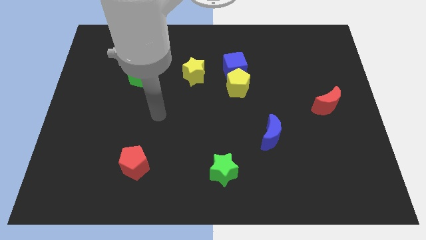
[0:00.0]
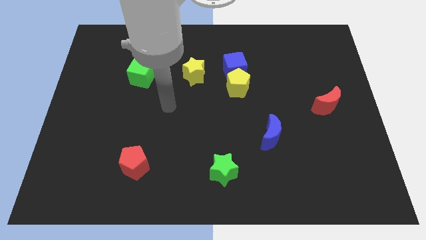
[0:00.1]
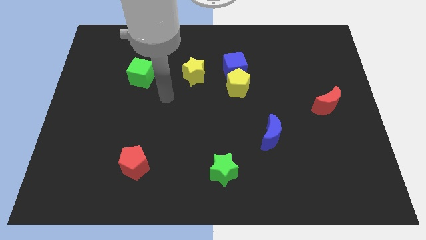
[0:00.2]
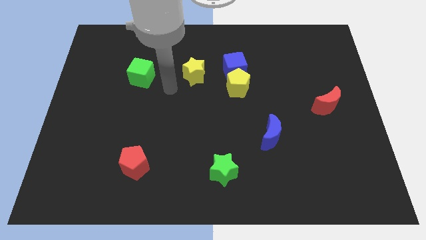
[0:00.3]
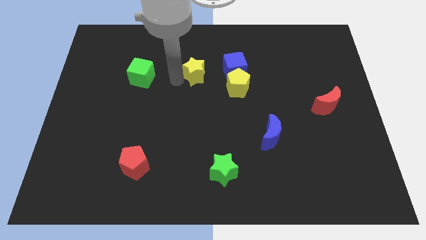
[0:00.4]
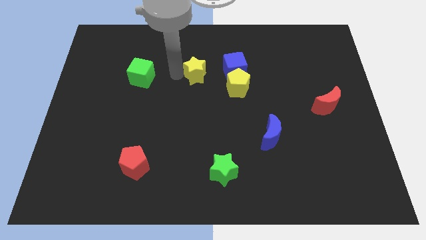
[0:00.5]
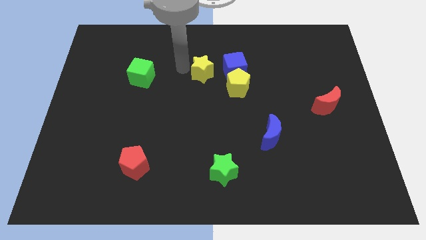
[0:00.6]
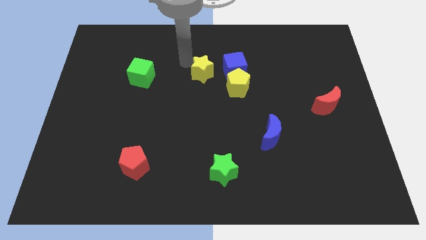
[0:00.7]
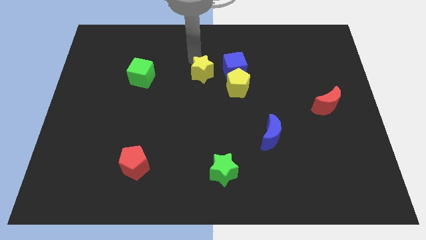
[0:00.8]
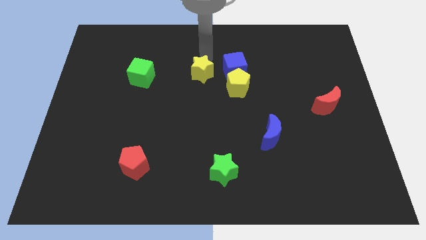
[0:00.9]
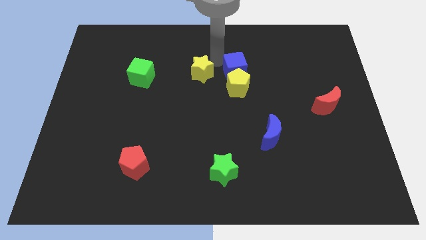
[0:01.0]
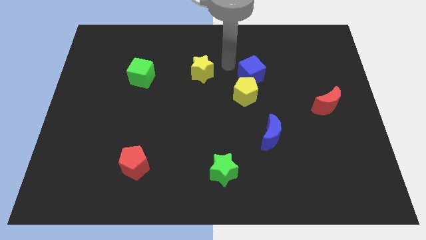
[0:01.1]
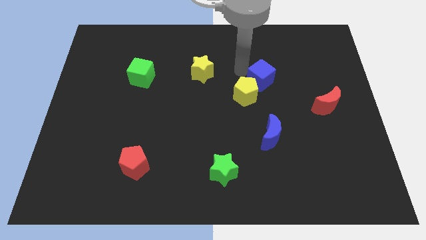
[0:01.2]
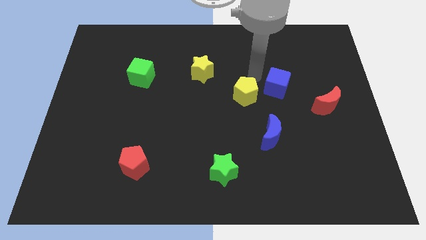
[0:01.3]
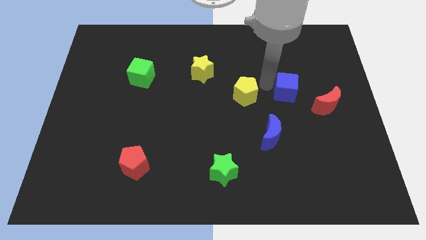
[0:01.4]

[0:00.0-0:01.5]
move the yellow pentagon away from the blue cube

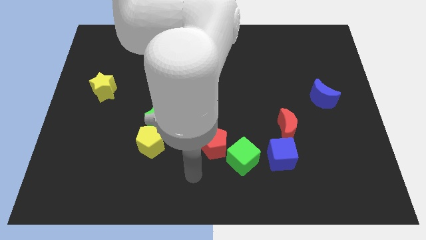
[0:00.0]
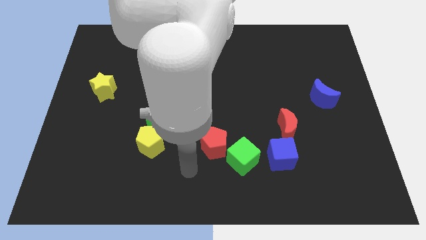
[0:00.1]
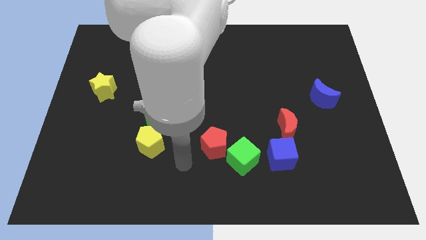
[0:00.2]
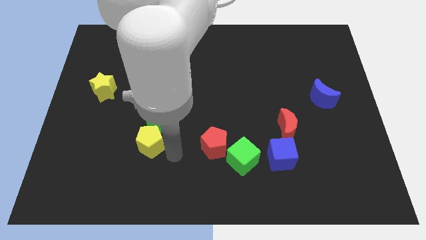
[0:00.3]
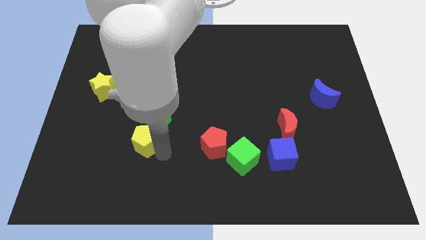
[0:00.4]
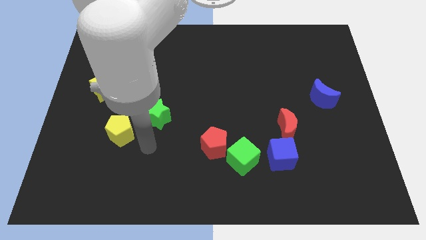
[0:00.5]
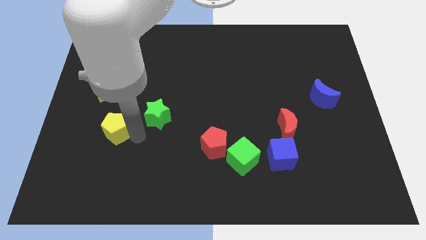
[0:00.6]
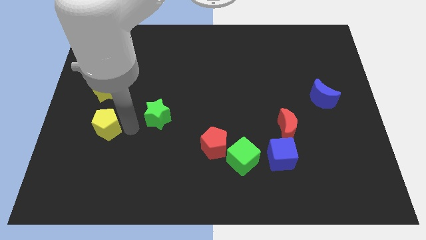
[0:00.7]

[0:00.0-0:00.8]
pull the green star apart from the yellow pentagon

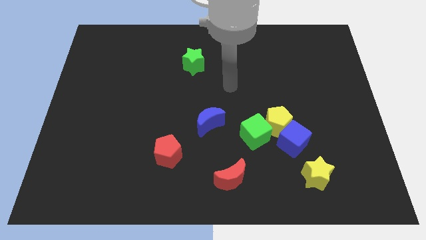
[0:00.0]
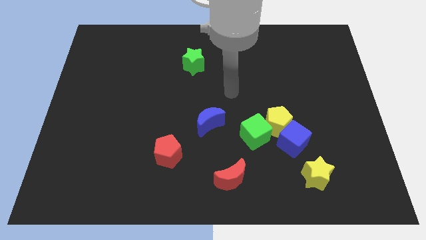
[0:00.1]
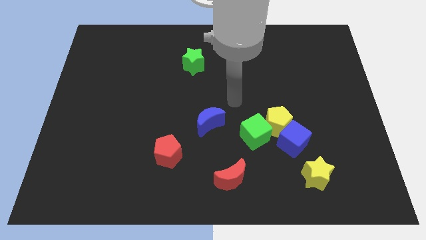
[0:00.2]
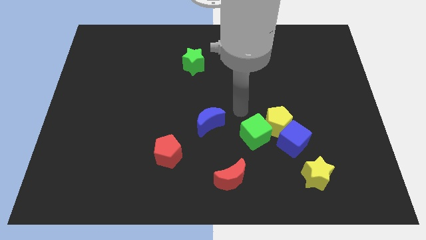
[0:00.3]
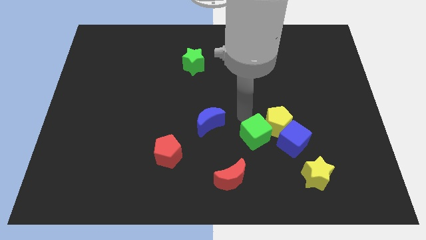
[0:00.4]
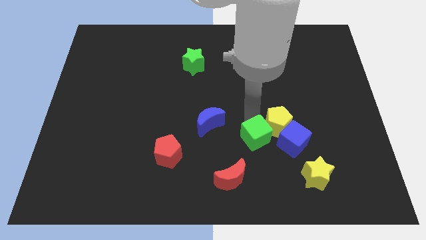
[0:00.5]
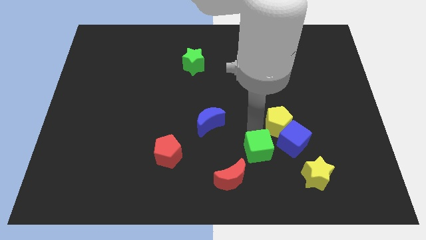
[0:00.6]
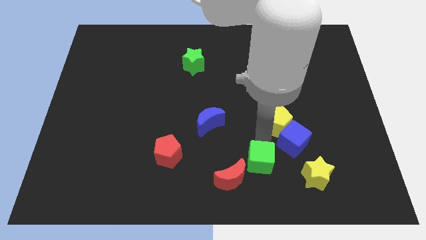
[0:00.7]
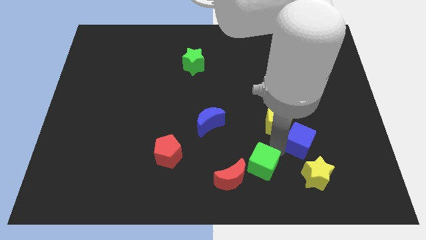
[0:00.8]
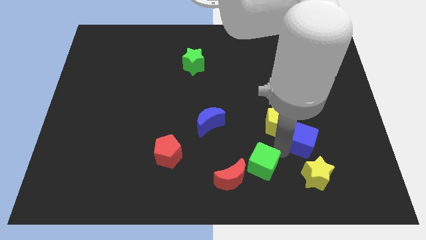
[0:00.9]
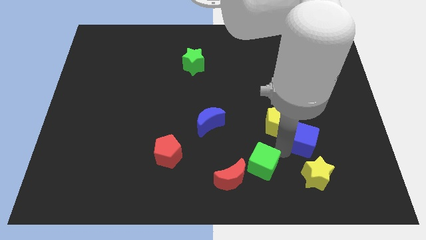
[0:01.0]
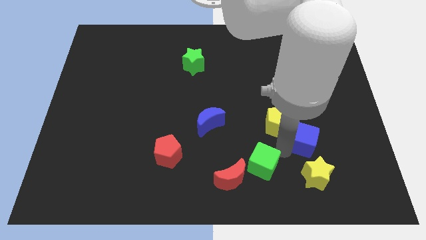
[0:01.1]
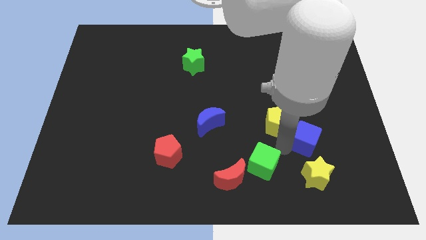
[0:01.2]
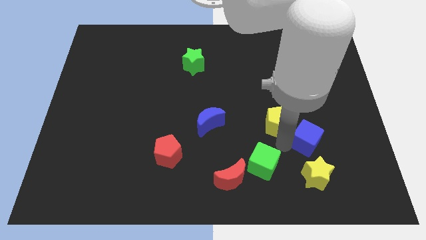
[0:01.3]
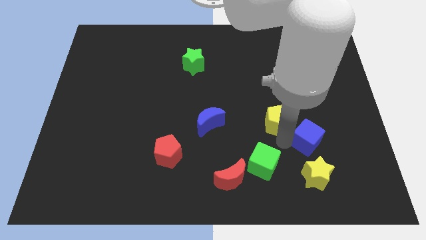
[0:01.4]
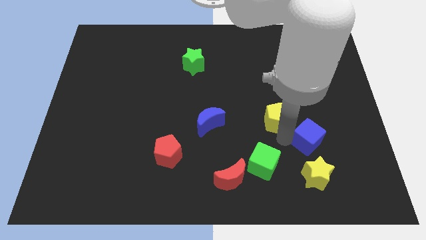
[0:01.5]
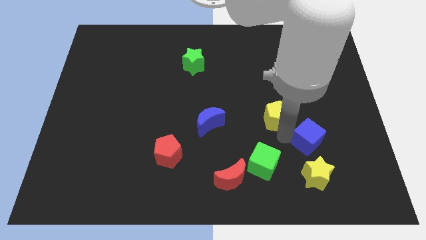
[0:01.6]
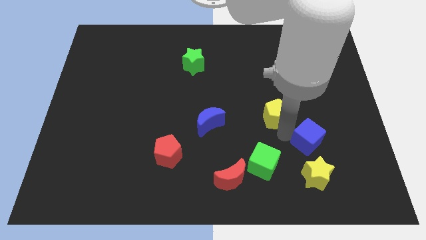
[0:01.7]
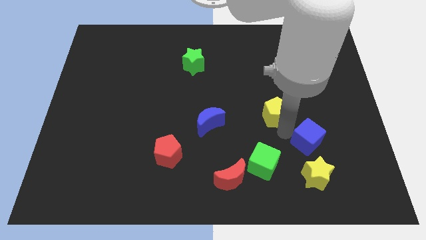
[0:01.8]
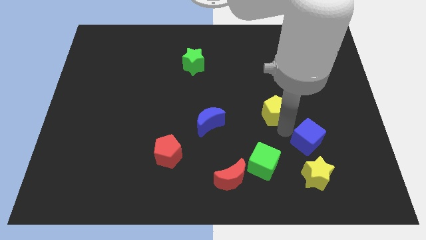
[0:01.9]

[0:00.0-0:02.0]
pull the yellow pentagon apart from the blue cube and green cube

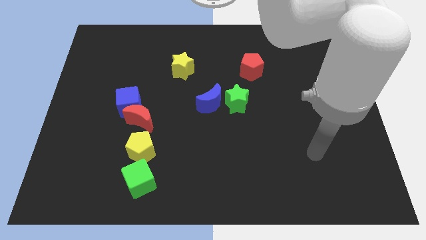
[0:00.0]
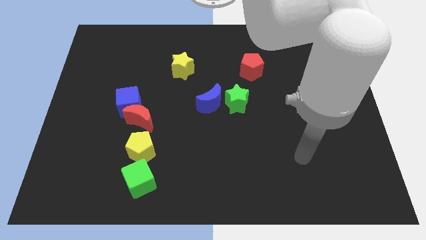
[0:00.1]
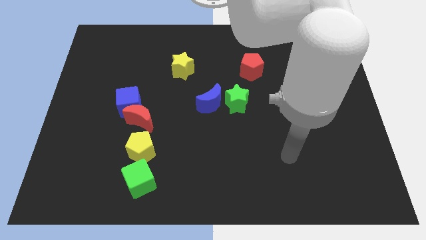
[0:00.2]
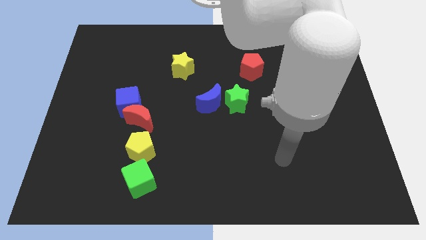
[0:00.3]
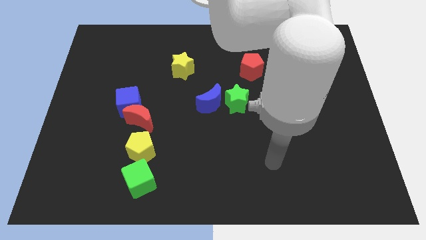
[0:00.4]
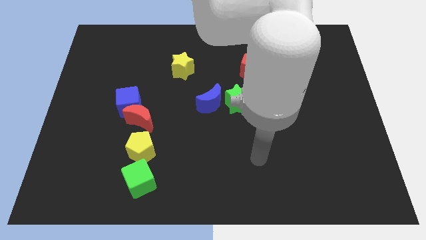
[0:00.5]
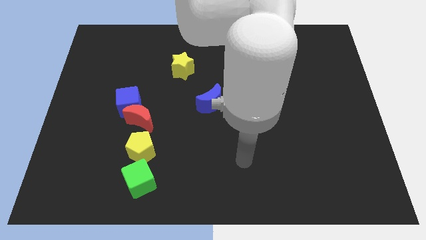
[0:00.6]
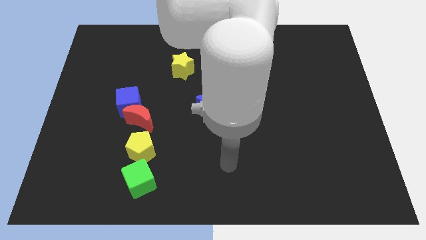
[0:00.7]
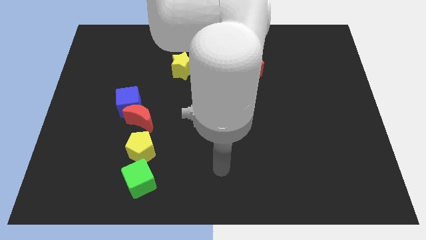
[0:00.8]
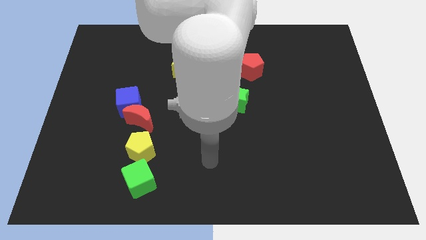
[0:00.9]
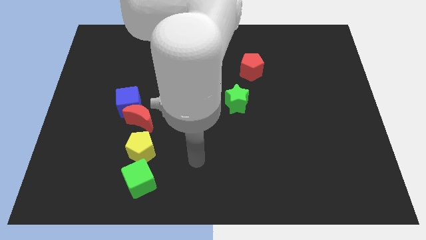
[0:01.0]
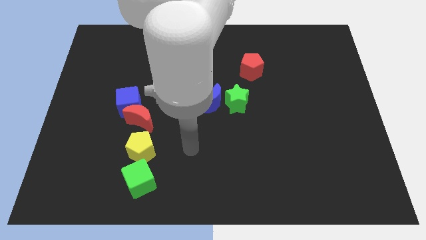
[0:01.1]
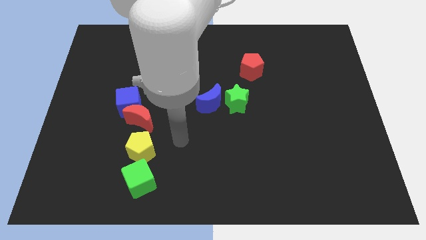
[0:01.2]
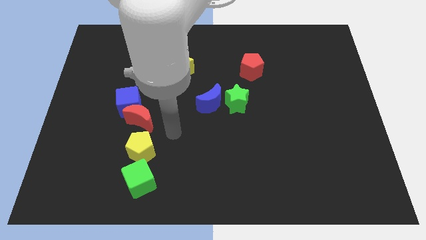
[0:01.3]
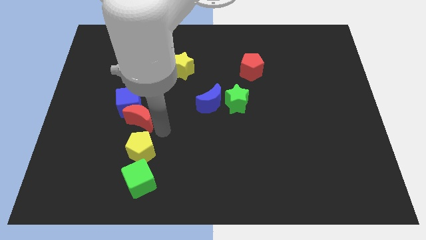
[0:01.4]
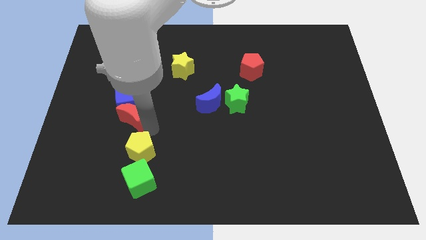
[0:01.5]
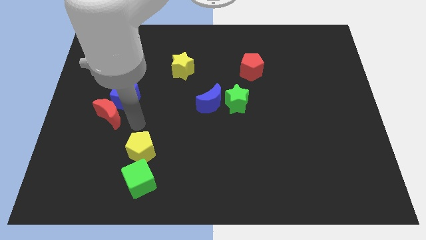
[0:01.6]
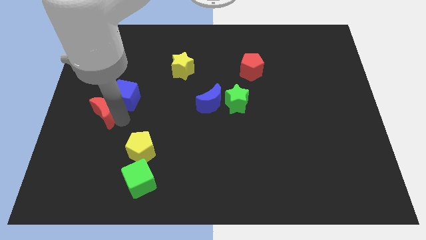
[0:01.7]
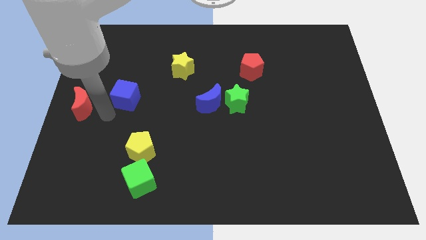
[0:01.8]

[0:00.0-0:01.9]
move the blue cube away from the red moon

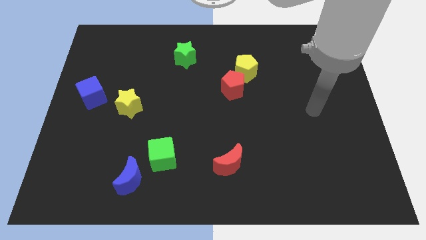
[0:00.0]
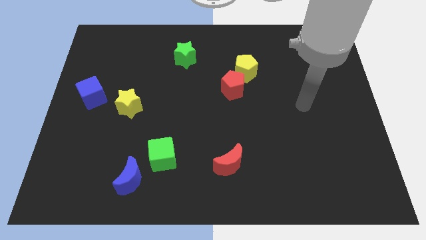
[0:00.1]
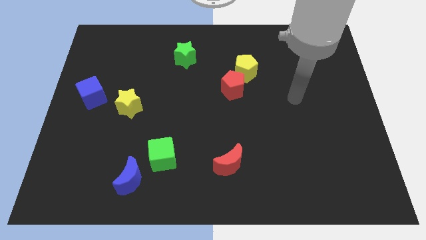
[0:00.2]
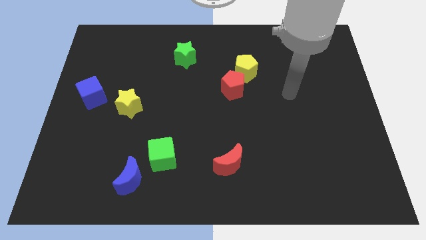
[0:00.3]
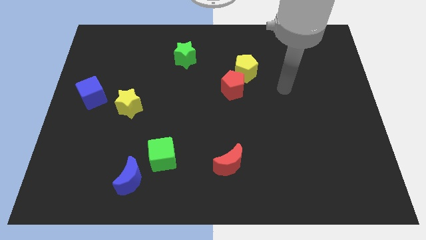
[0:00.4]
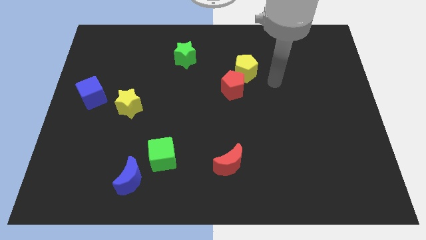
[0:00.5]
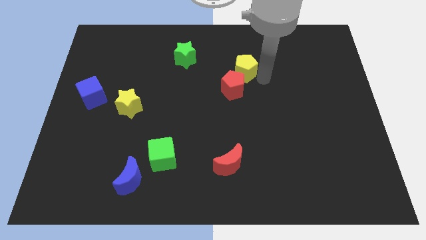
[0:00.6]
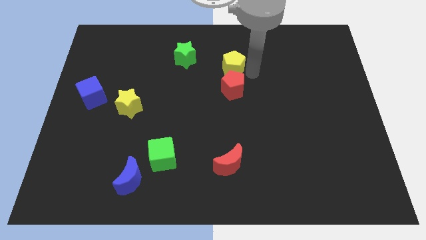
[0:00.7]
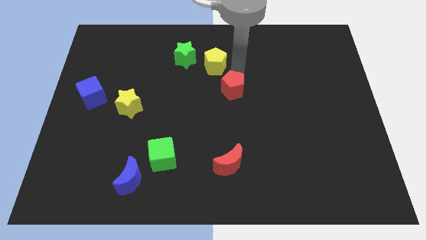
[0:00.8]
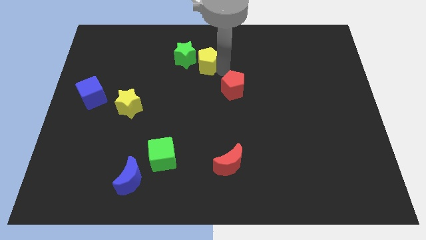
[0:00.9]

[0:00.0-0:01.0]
pull the red pentagon apart from the yellow pentagon

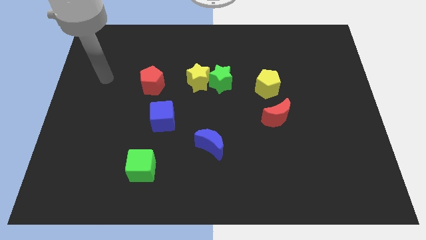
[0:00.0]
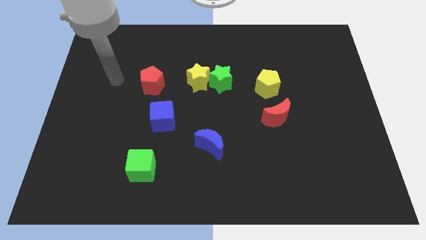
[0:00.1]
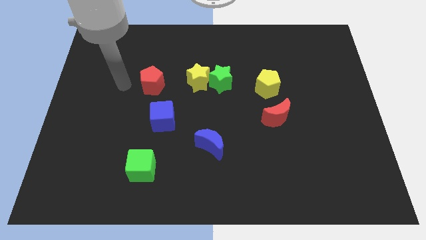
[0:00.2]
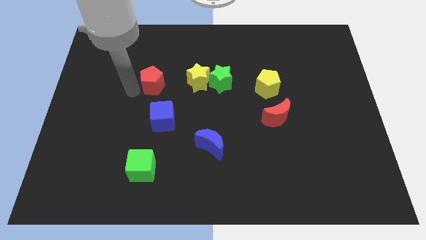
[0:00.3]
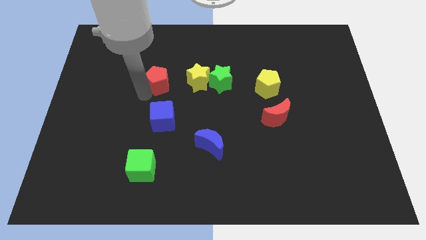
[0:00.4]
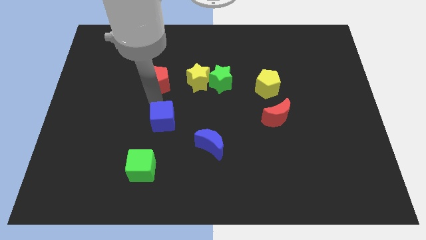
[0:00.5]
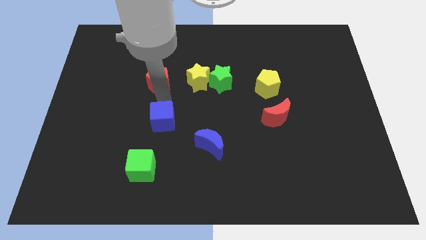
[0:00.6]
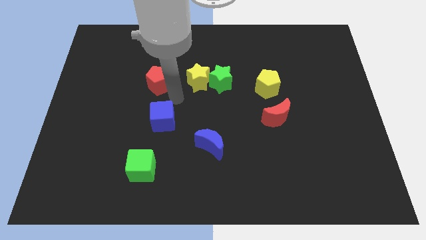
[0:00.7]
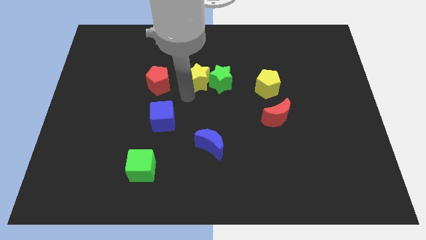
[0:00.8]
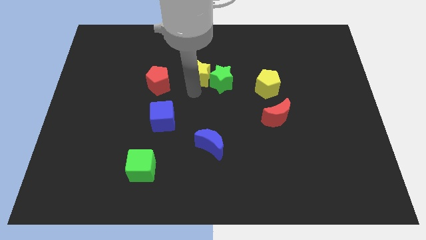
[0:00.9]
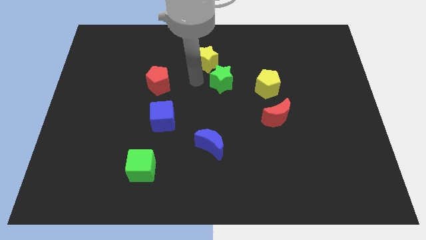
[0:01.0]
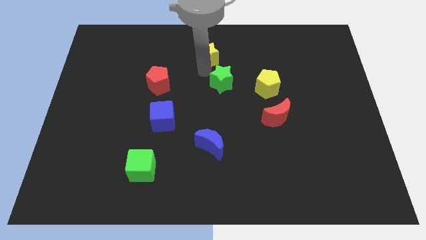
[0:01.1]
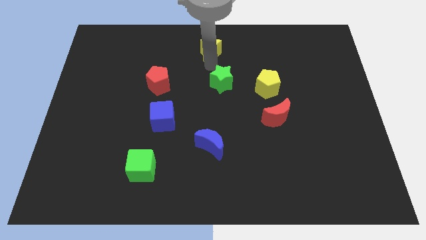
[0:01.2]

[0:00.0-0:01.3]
pull the green star apart from the yellow star

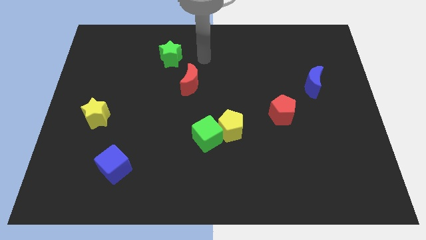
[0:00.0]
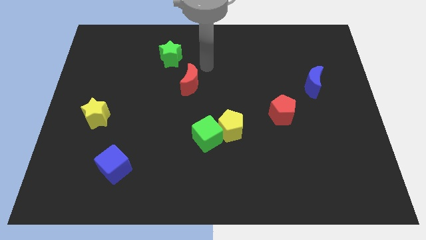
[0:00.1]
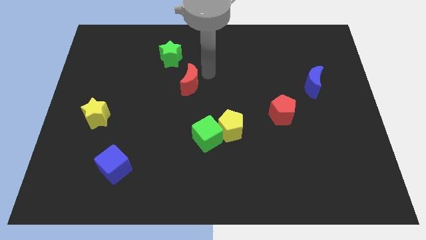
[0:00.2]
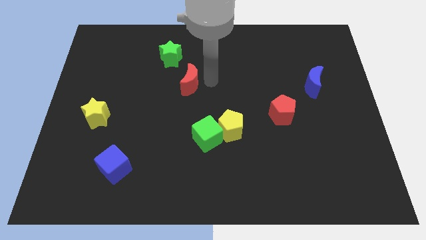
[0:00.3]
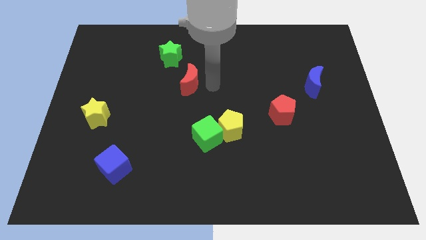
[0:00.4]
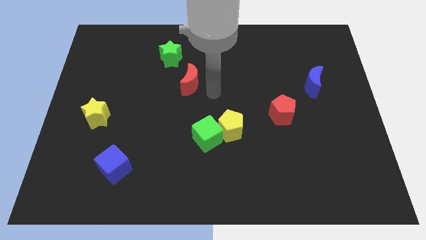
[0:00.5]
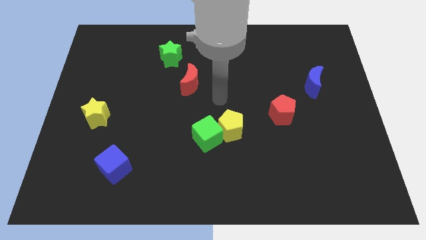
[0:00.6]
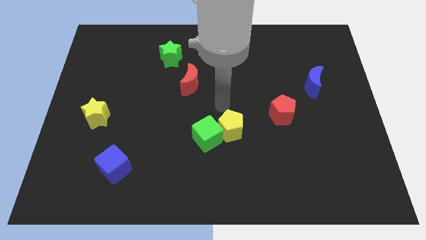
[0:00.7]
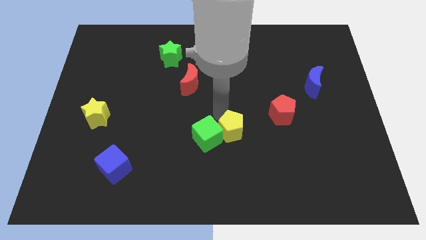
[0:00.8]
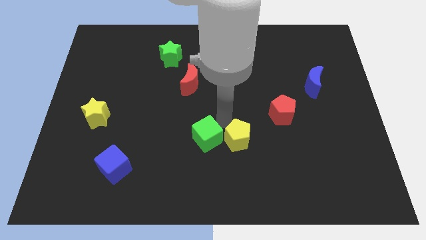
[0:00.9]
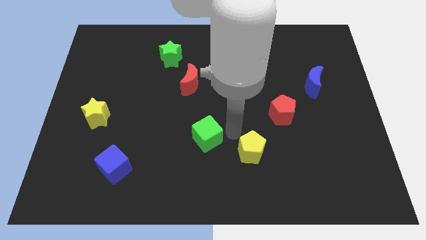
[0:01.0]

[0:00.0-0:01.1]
move the green cube away from the yellow pentagon
